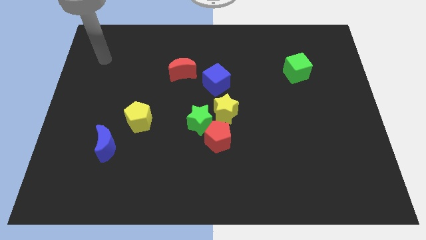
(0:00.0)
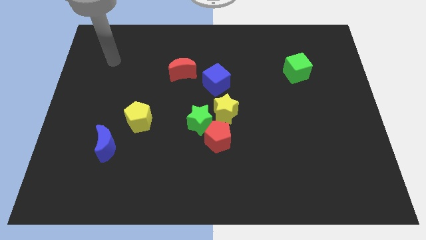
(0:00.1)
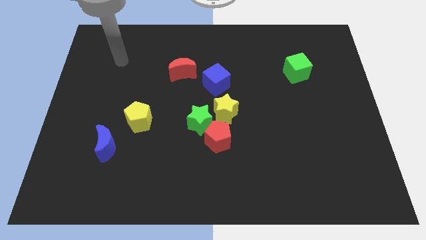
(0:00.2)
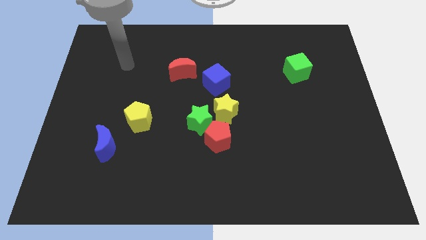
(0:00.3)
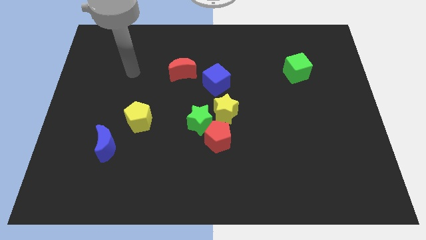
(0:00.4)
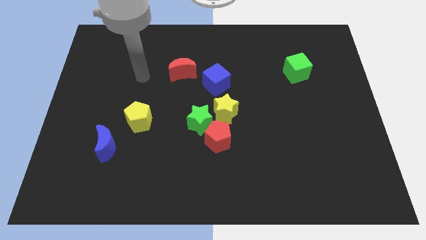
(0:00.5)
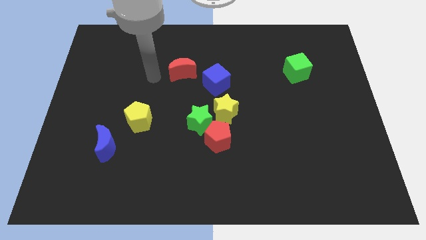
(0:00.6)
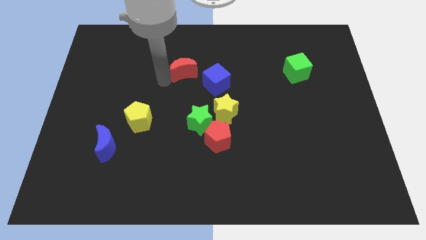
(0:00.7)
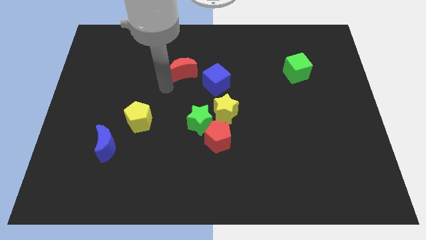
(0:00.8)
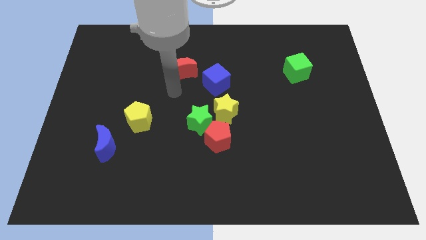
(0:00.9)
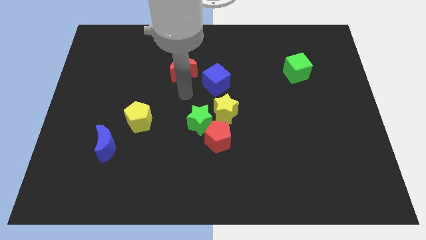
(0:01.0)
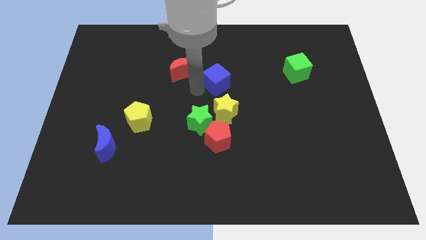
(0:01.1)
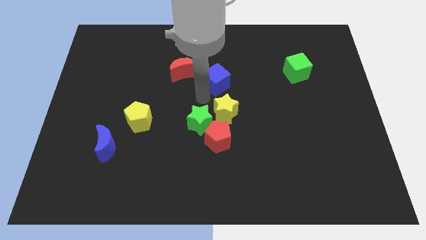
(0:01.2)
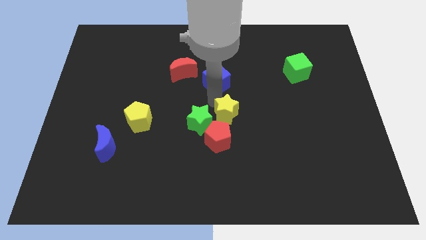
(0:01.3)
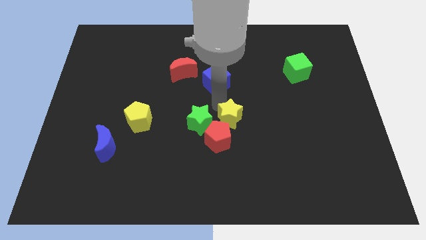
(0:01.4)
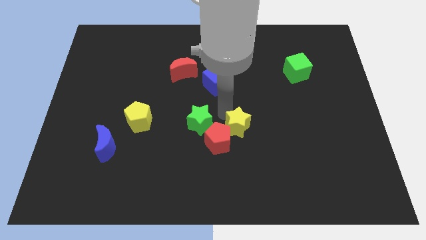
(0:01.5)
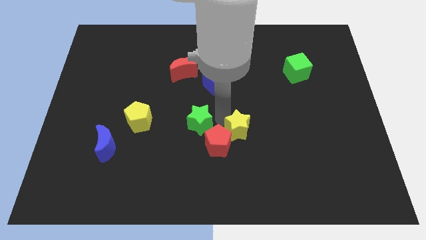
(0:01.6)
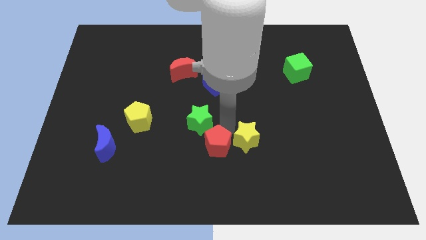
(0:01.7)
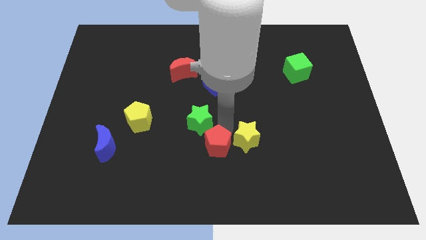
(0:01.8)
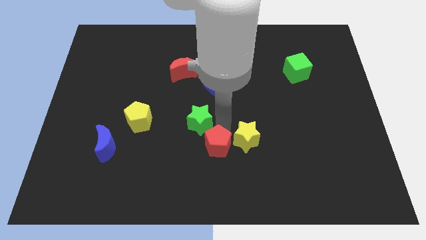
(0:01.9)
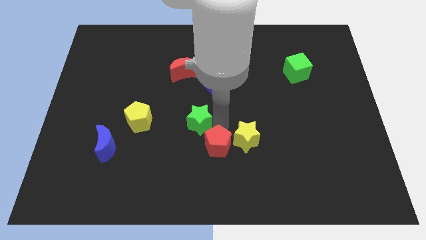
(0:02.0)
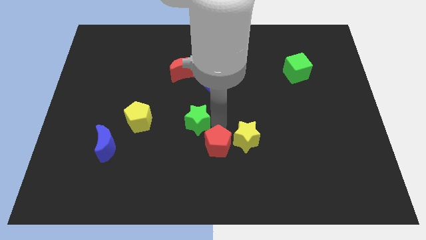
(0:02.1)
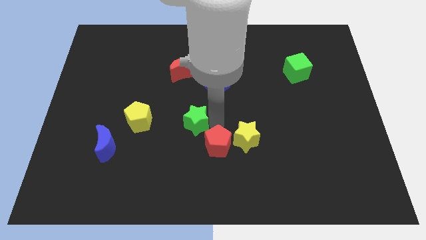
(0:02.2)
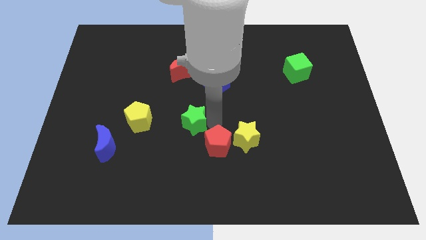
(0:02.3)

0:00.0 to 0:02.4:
separate the green star from the red pentagon and yellow star

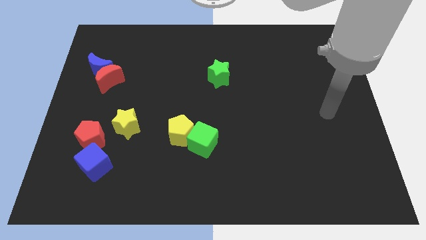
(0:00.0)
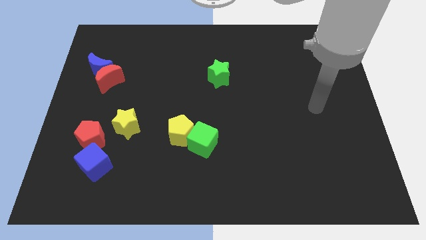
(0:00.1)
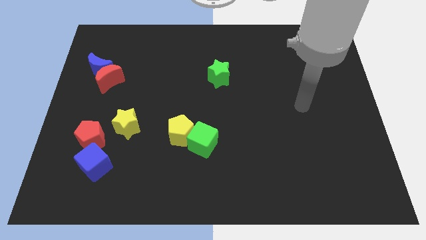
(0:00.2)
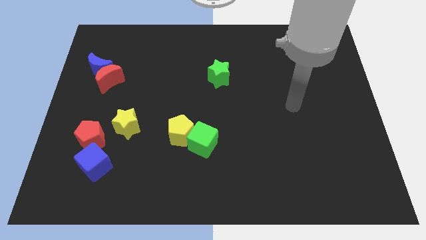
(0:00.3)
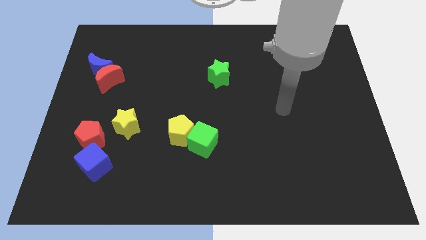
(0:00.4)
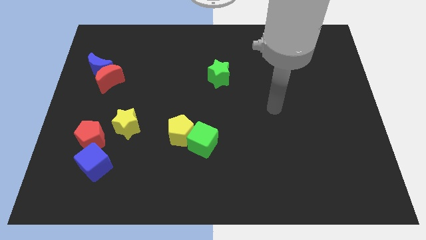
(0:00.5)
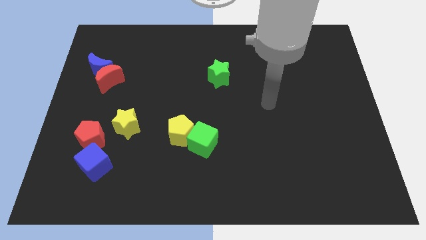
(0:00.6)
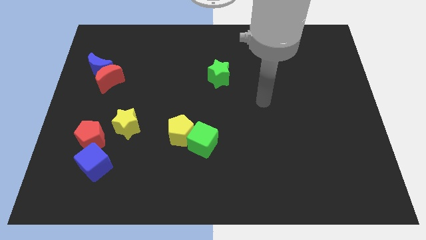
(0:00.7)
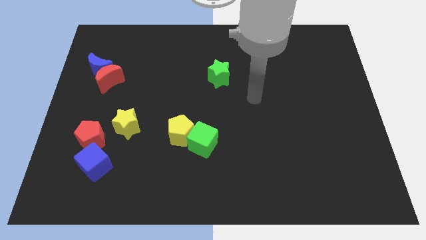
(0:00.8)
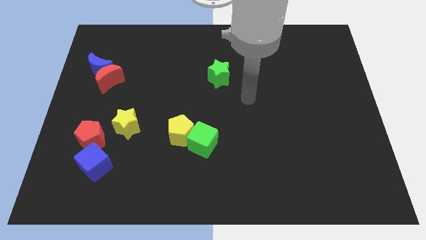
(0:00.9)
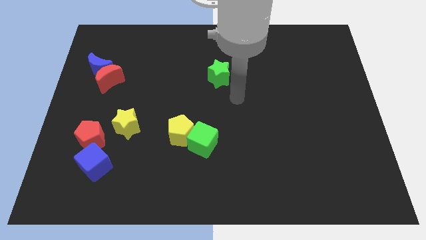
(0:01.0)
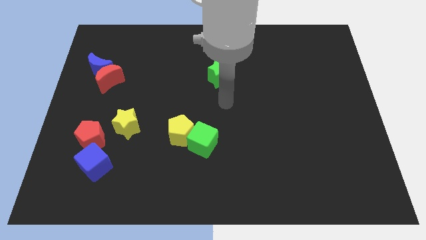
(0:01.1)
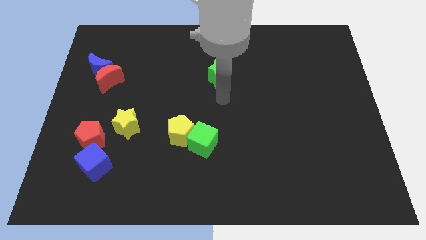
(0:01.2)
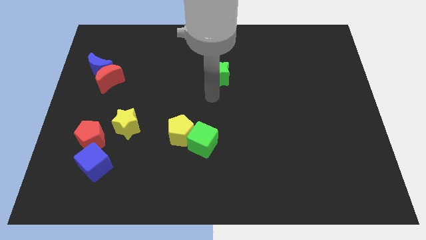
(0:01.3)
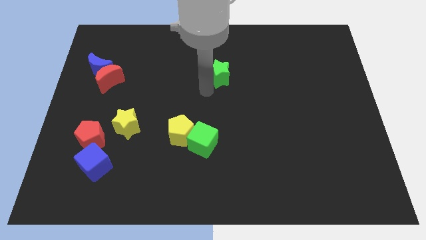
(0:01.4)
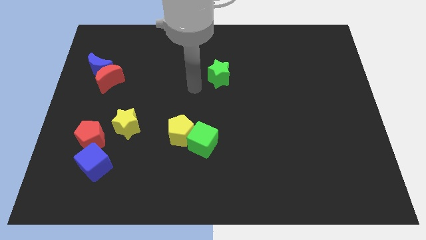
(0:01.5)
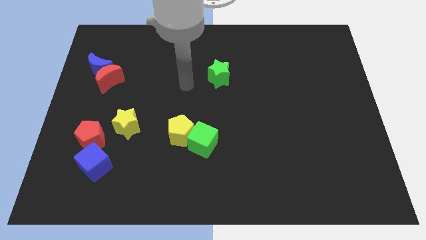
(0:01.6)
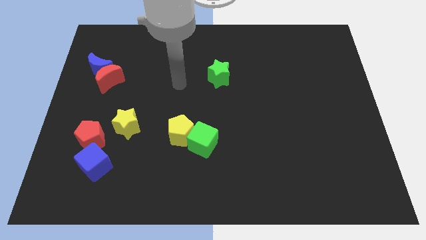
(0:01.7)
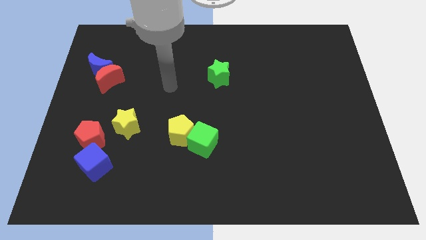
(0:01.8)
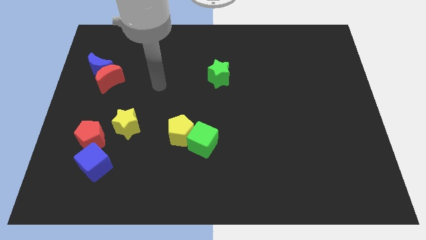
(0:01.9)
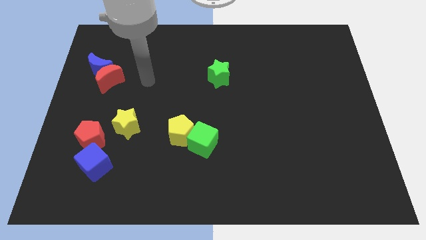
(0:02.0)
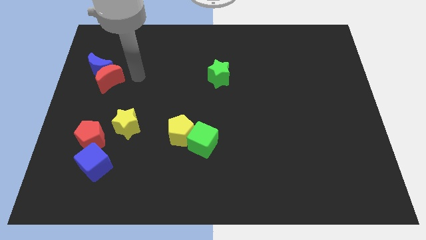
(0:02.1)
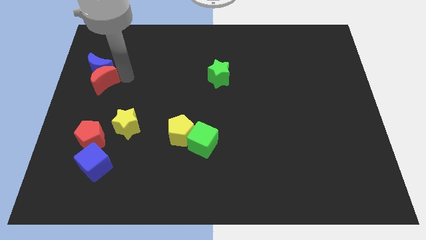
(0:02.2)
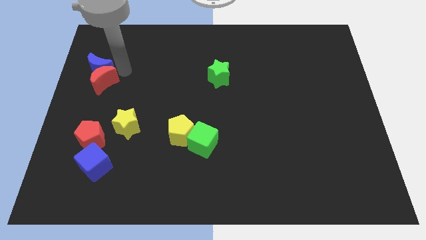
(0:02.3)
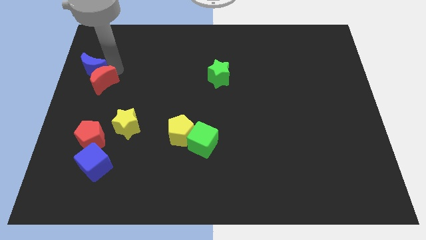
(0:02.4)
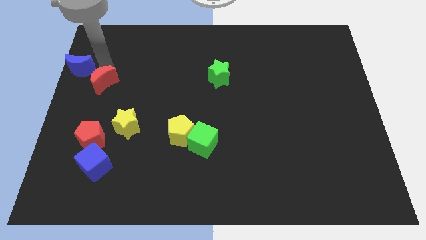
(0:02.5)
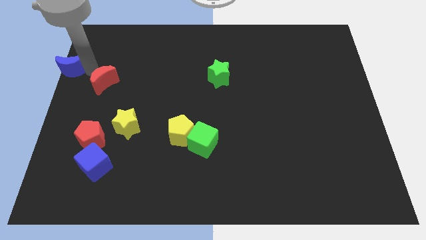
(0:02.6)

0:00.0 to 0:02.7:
separate the red moon from the blue moon

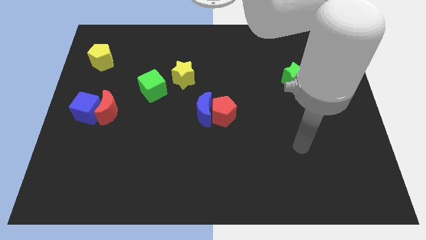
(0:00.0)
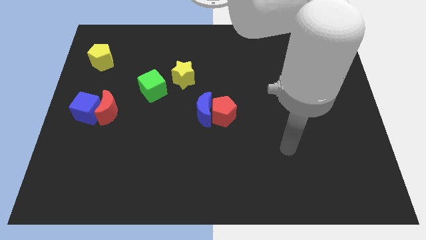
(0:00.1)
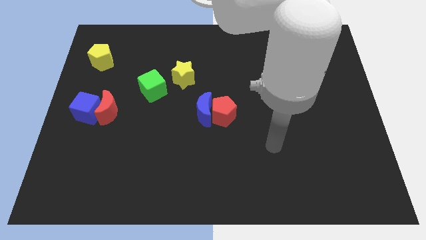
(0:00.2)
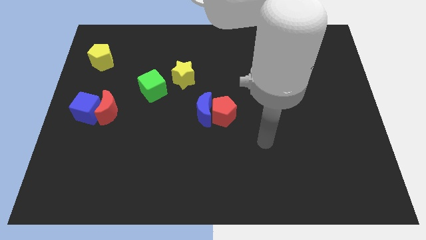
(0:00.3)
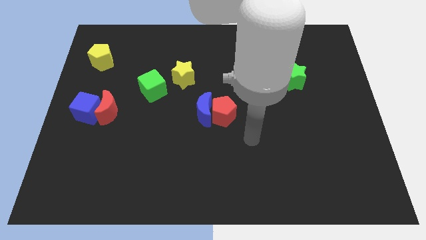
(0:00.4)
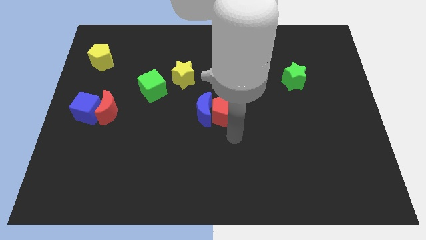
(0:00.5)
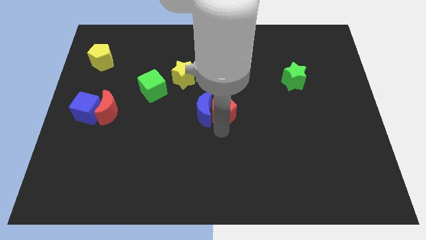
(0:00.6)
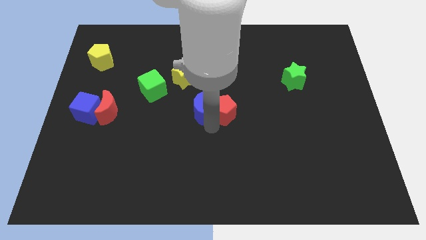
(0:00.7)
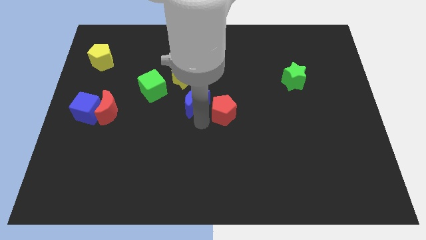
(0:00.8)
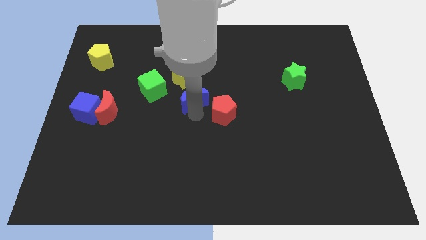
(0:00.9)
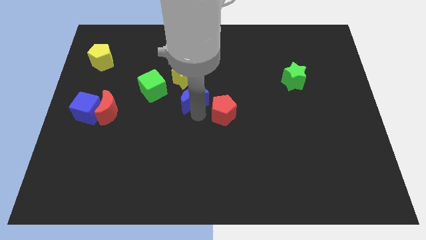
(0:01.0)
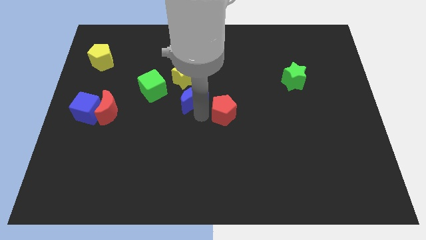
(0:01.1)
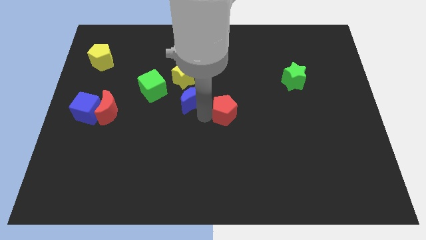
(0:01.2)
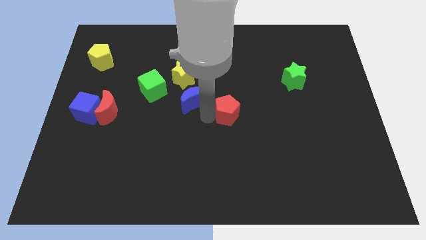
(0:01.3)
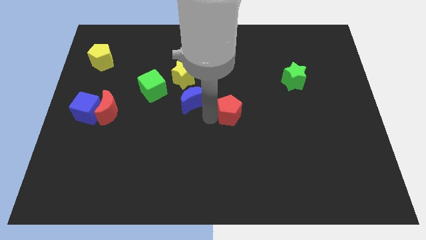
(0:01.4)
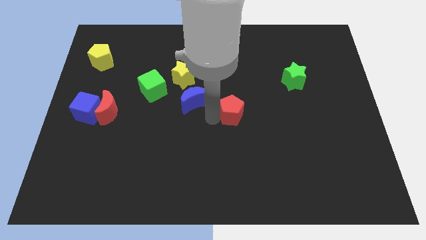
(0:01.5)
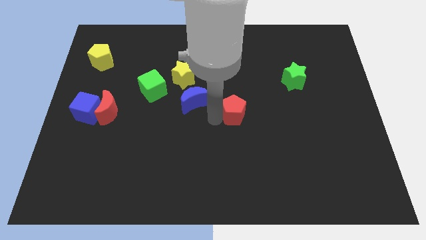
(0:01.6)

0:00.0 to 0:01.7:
move the red pentagon away from the blue moon

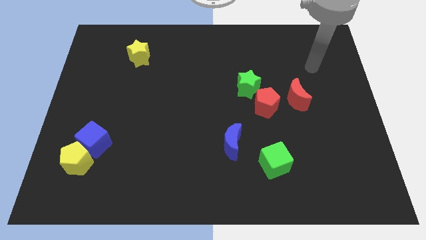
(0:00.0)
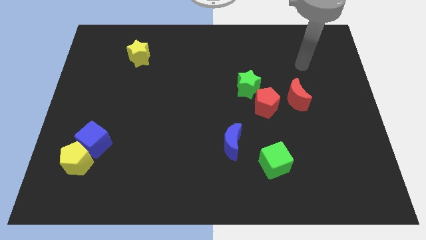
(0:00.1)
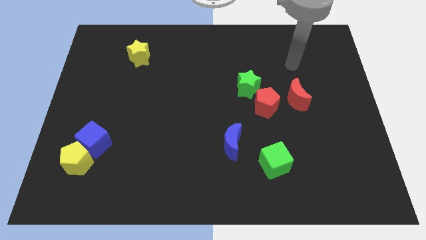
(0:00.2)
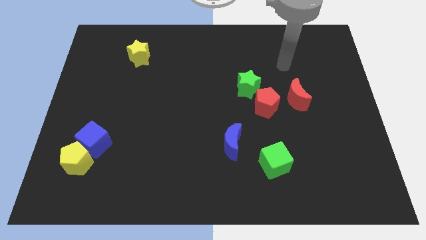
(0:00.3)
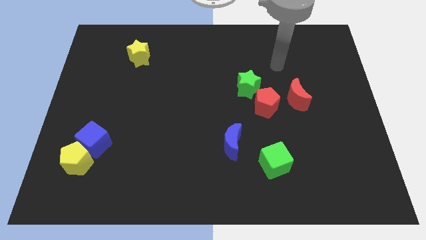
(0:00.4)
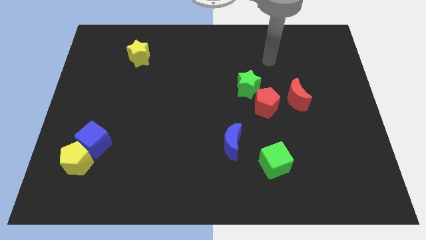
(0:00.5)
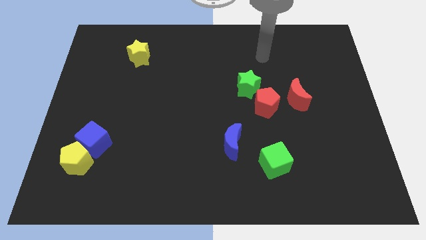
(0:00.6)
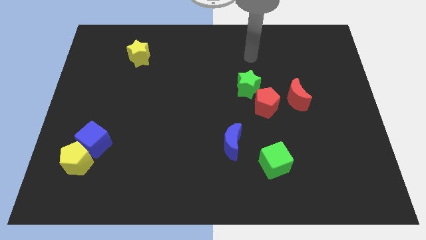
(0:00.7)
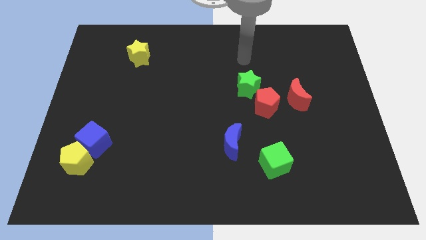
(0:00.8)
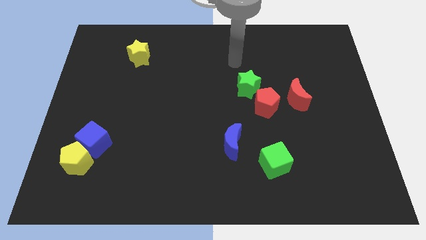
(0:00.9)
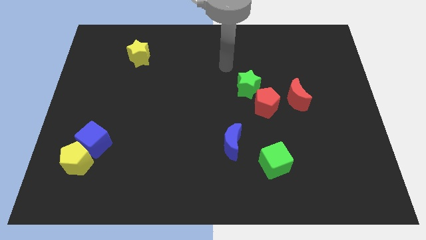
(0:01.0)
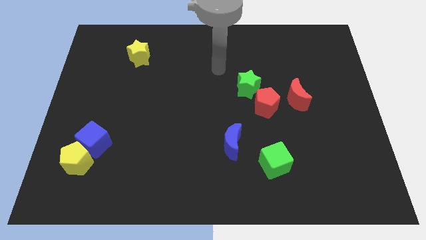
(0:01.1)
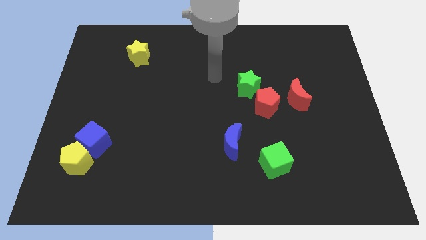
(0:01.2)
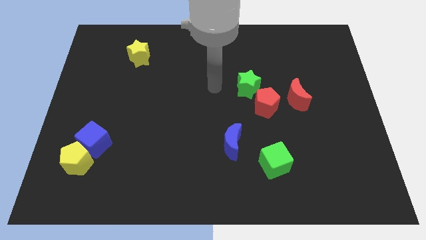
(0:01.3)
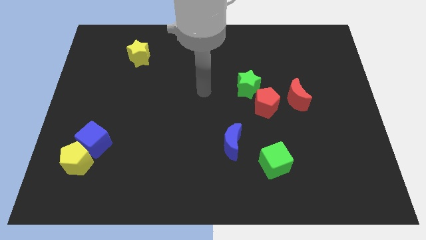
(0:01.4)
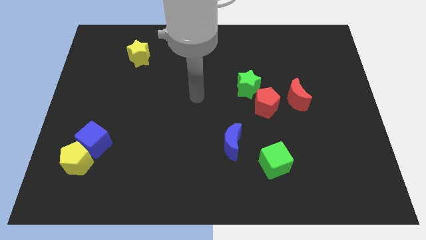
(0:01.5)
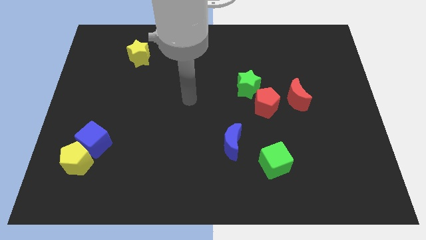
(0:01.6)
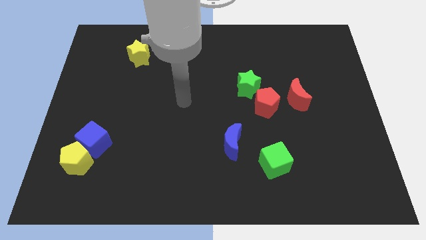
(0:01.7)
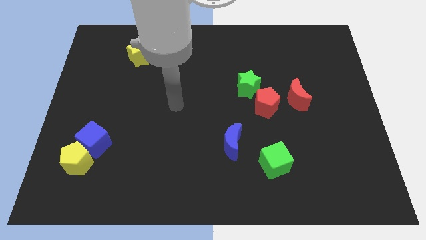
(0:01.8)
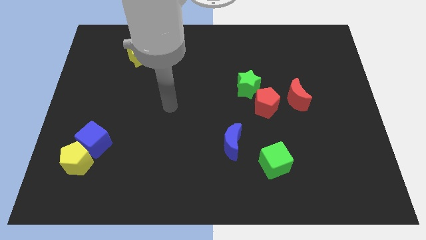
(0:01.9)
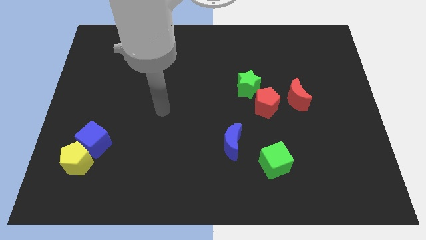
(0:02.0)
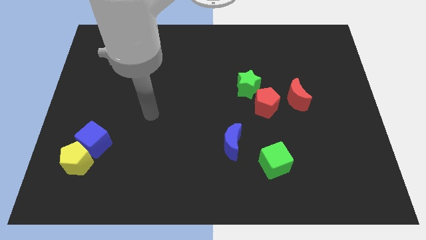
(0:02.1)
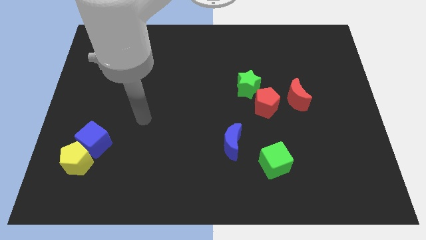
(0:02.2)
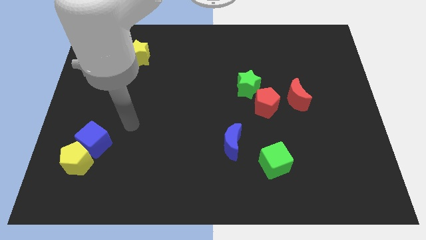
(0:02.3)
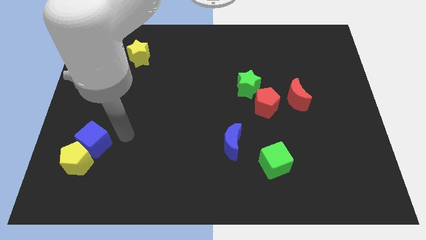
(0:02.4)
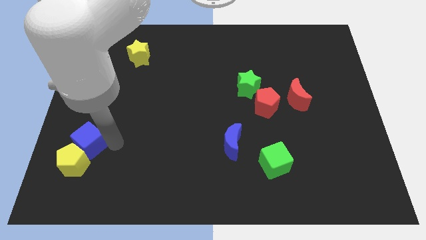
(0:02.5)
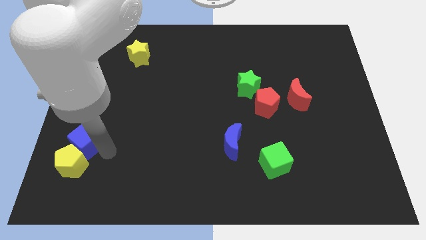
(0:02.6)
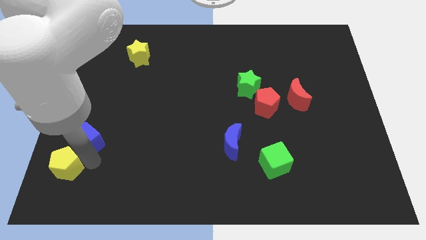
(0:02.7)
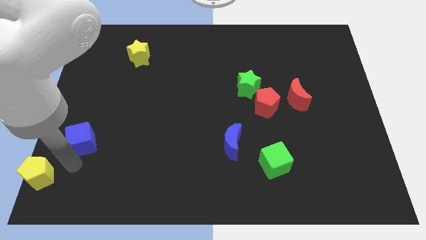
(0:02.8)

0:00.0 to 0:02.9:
move the blue cube away from the yellow pentagon
